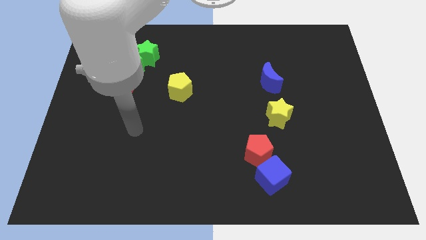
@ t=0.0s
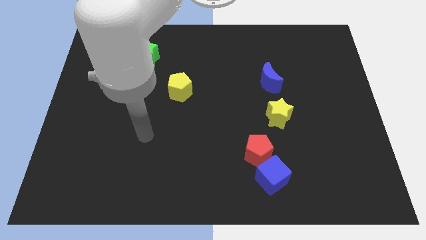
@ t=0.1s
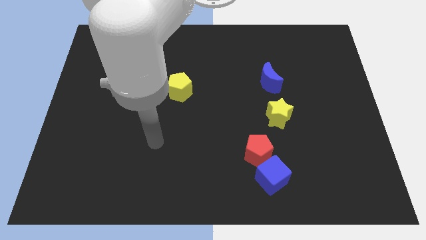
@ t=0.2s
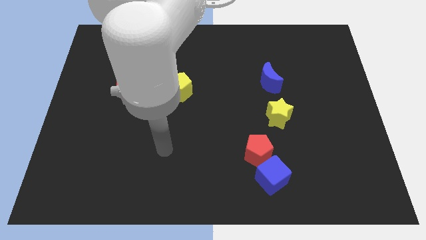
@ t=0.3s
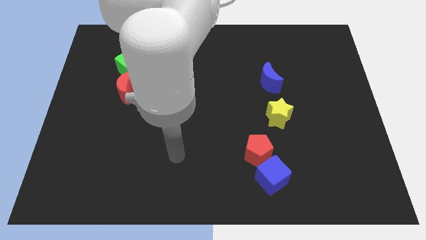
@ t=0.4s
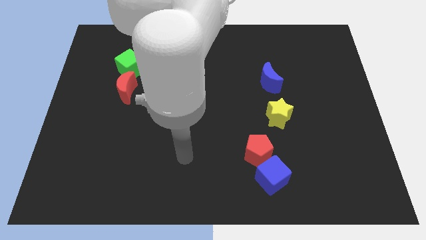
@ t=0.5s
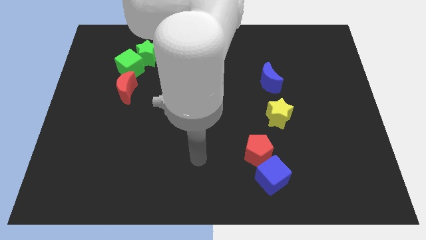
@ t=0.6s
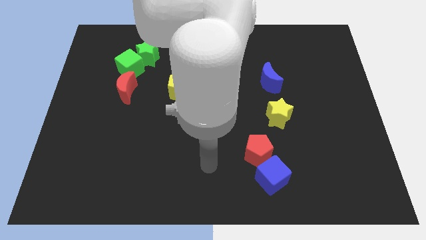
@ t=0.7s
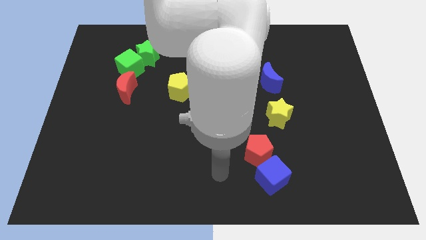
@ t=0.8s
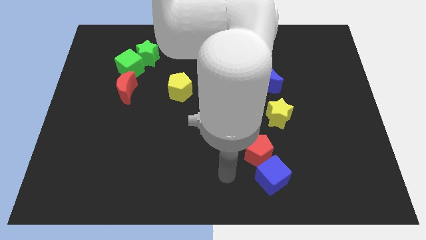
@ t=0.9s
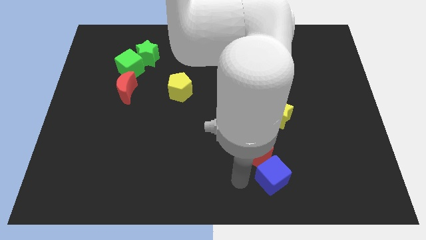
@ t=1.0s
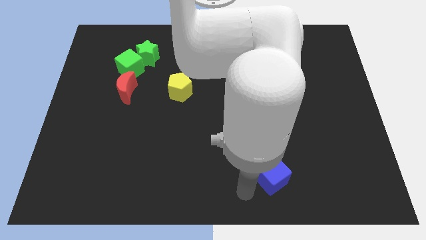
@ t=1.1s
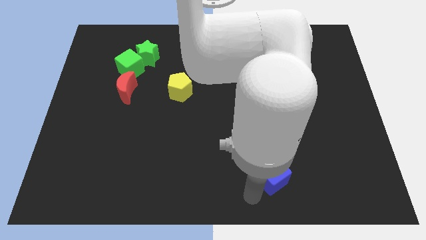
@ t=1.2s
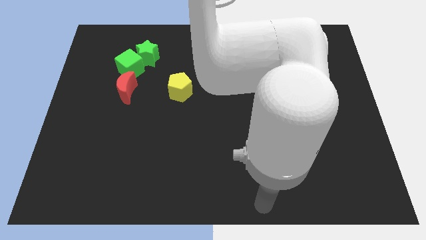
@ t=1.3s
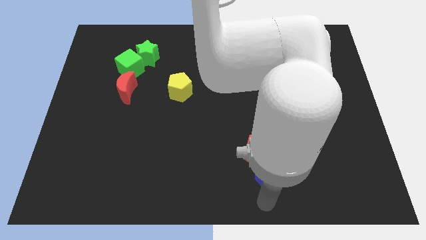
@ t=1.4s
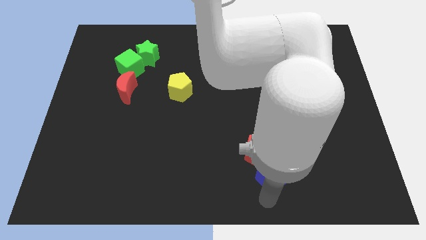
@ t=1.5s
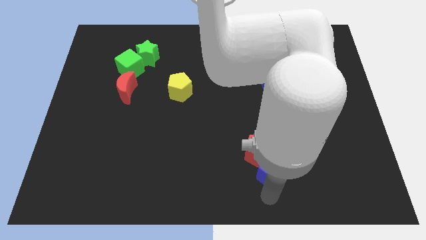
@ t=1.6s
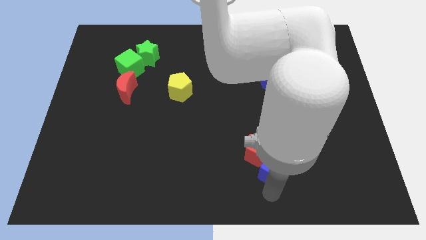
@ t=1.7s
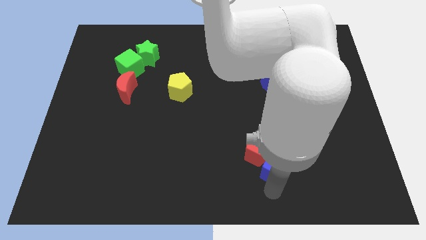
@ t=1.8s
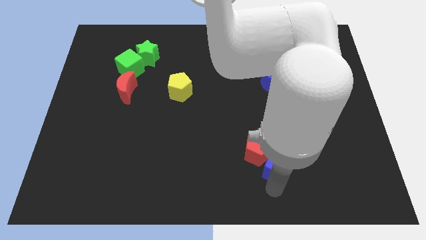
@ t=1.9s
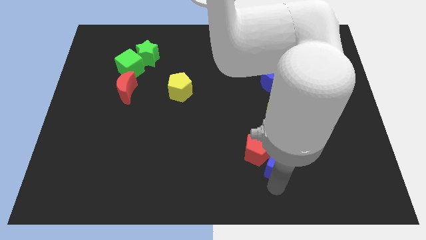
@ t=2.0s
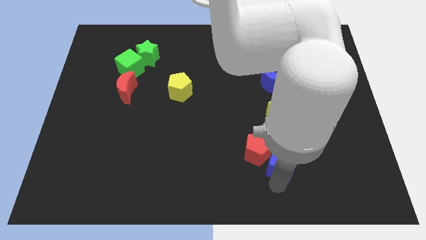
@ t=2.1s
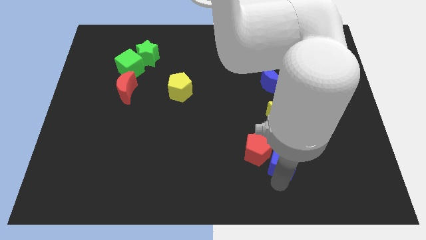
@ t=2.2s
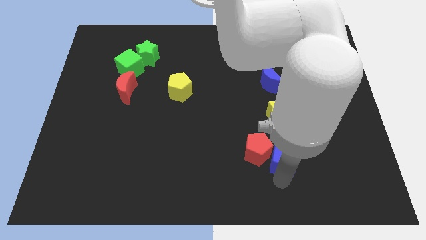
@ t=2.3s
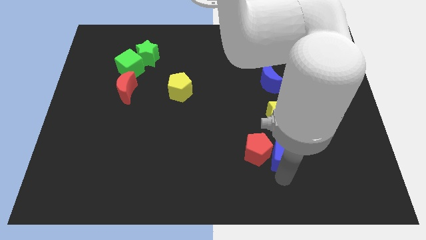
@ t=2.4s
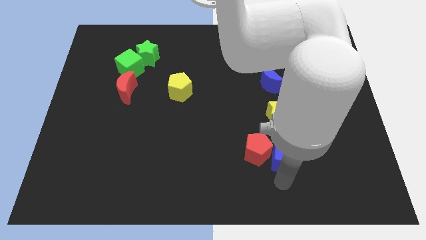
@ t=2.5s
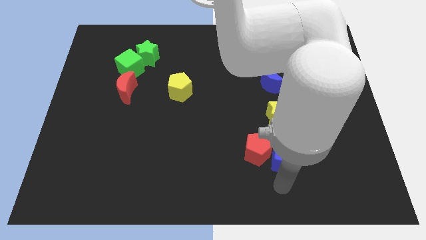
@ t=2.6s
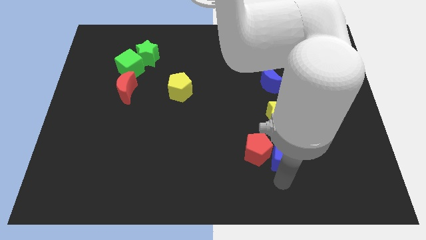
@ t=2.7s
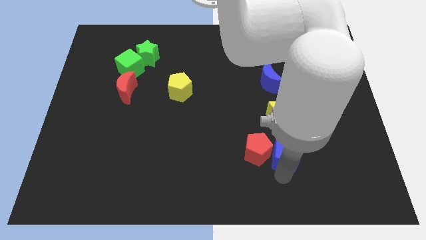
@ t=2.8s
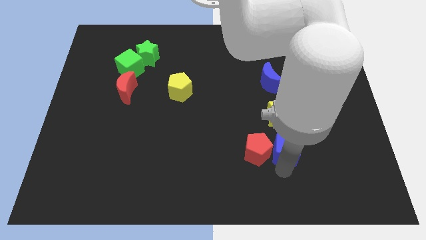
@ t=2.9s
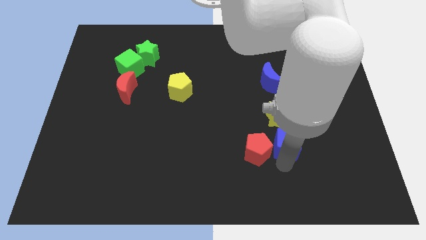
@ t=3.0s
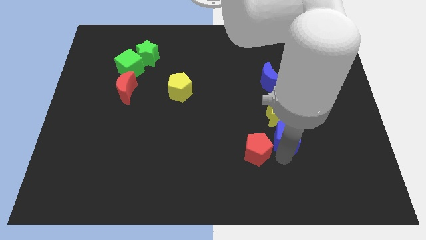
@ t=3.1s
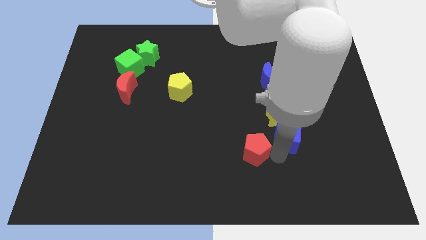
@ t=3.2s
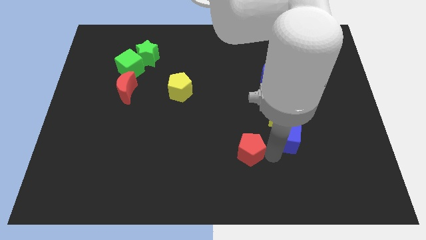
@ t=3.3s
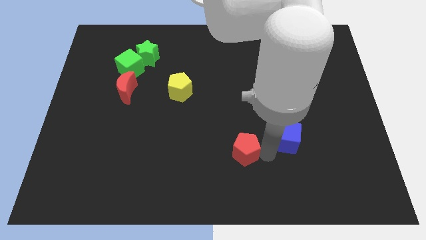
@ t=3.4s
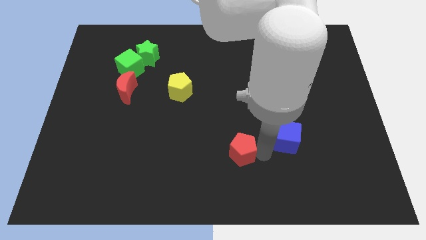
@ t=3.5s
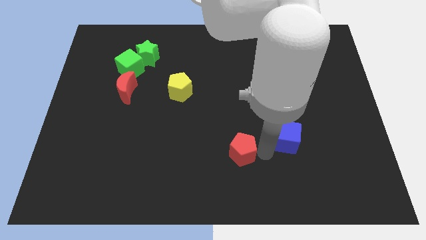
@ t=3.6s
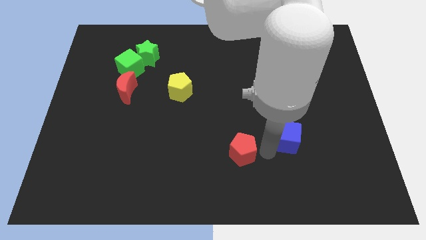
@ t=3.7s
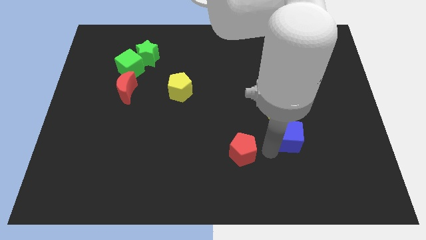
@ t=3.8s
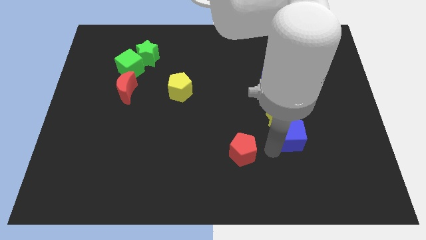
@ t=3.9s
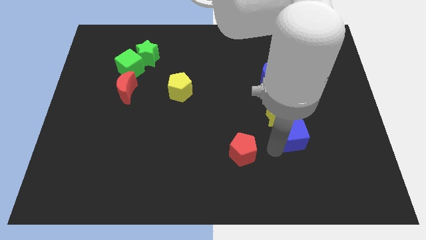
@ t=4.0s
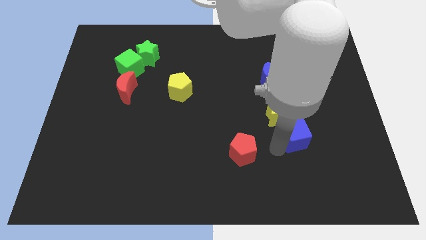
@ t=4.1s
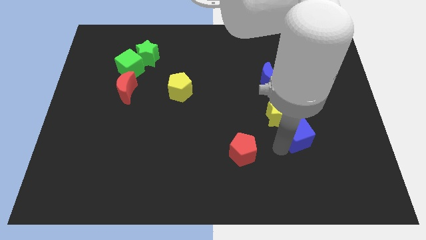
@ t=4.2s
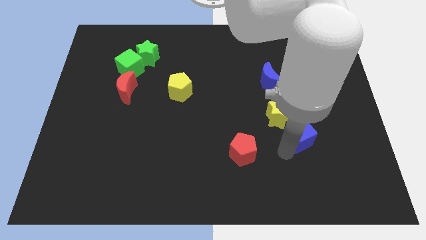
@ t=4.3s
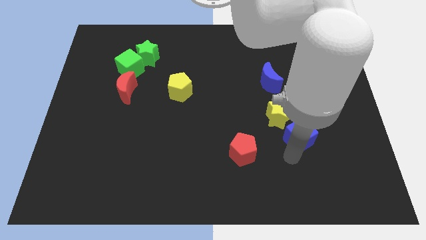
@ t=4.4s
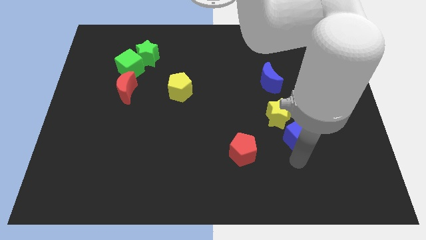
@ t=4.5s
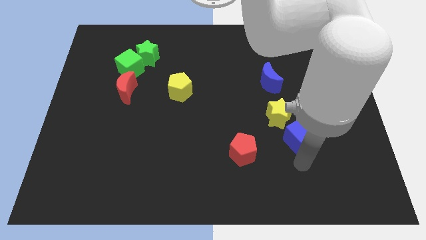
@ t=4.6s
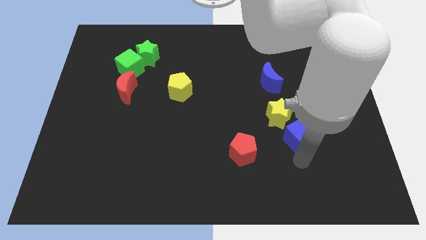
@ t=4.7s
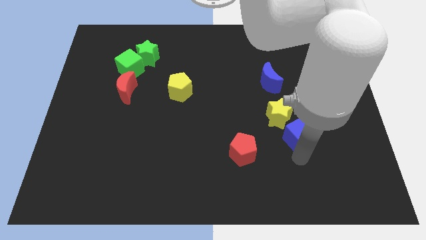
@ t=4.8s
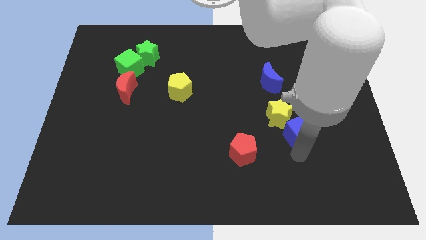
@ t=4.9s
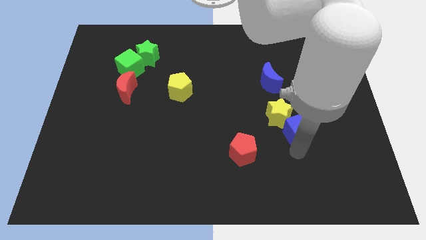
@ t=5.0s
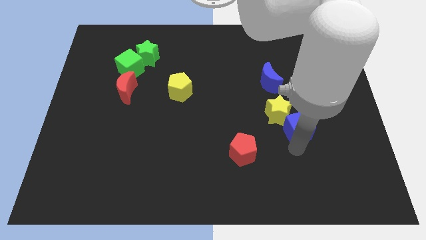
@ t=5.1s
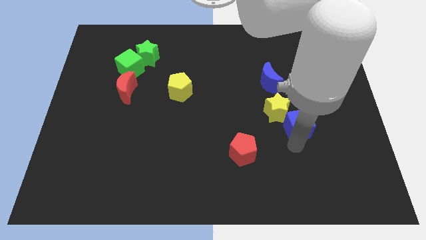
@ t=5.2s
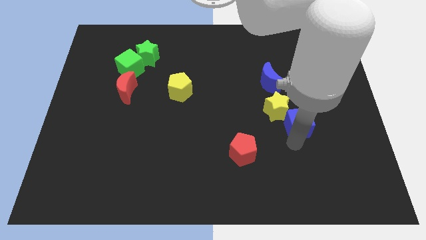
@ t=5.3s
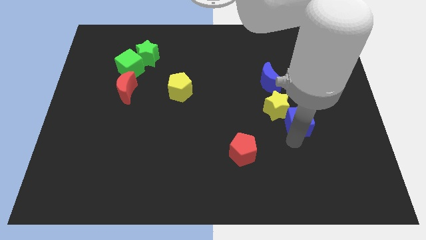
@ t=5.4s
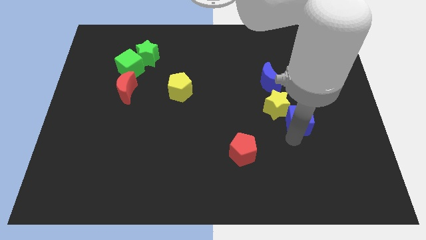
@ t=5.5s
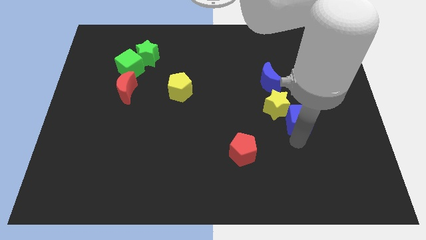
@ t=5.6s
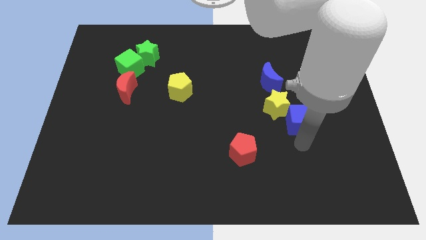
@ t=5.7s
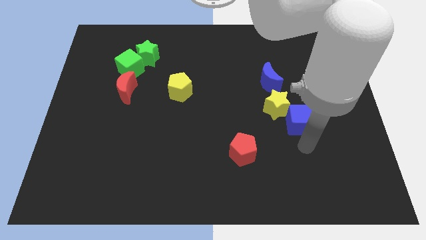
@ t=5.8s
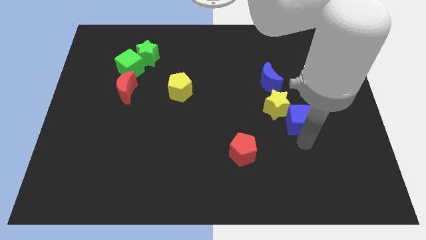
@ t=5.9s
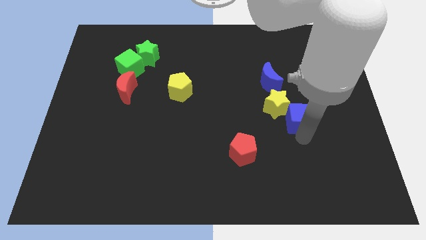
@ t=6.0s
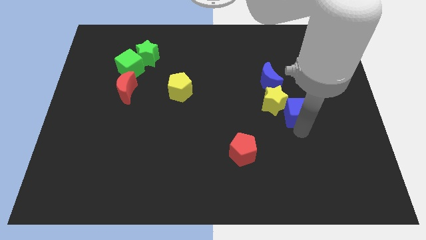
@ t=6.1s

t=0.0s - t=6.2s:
slide the blue cube to the bottom right of the blue moon
